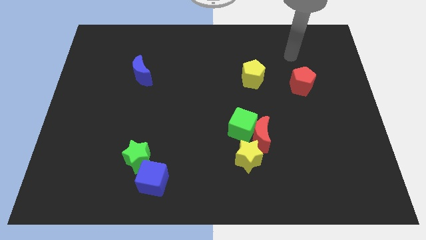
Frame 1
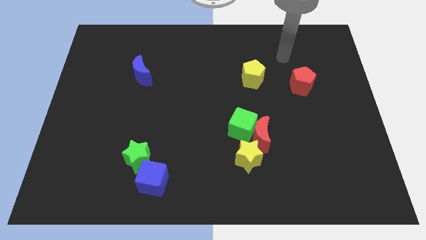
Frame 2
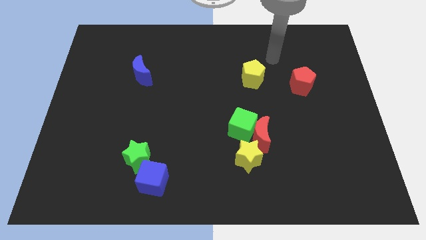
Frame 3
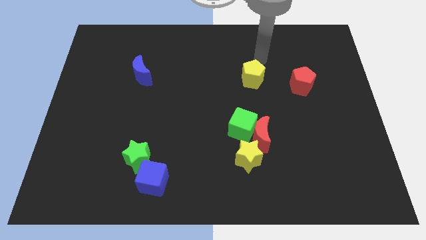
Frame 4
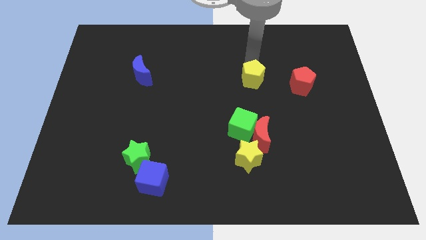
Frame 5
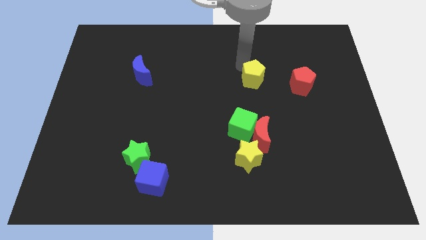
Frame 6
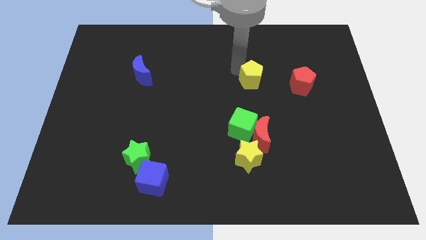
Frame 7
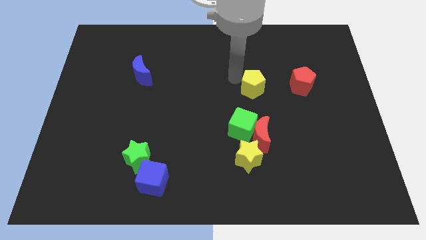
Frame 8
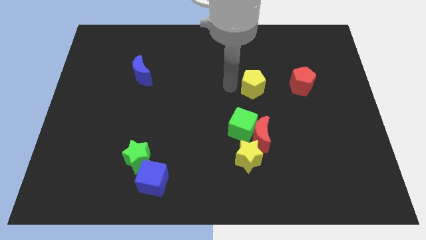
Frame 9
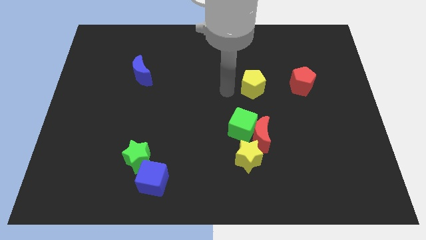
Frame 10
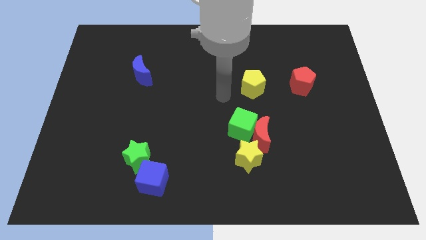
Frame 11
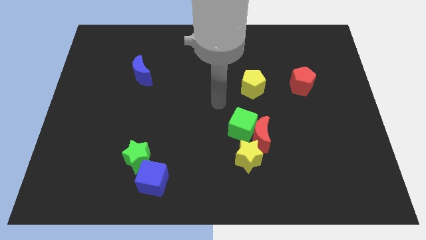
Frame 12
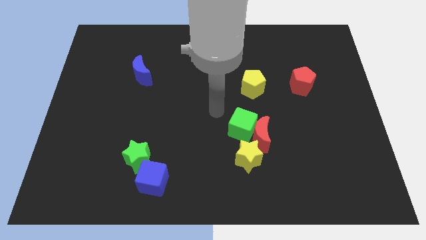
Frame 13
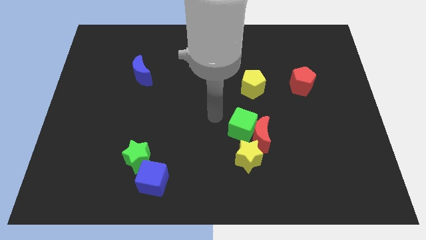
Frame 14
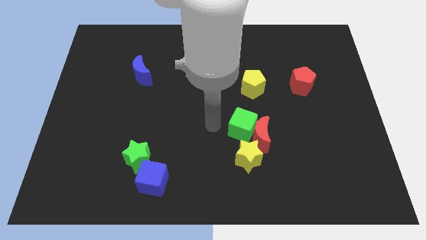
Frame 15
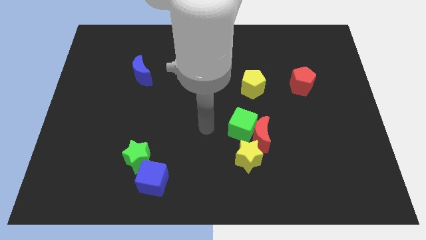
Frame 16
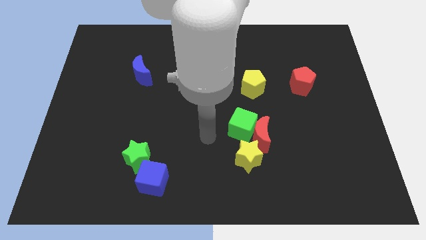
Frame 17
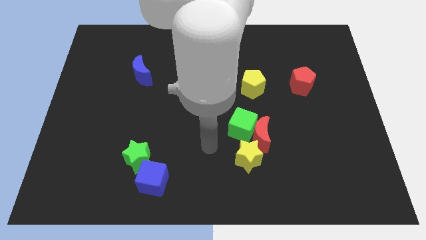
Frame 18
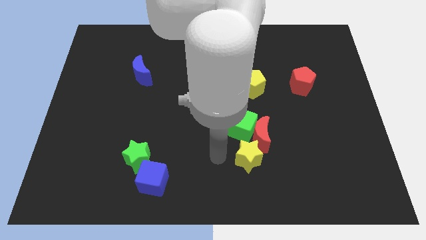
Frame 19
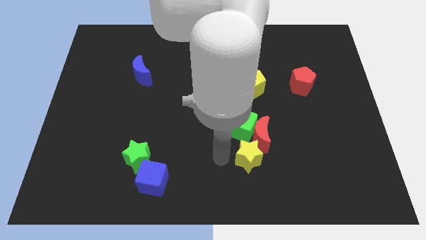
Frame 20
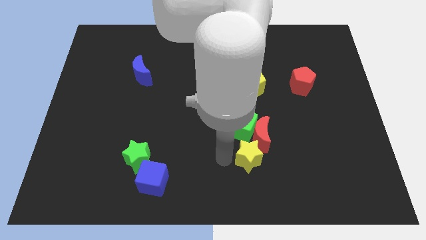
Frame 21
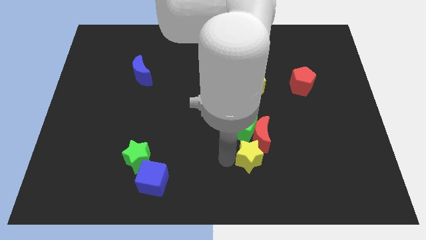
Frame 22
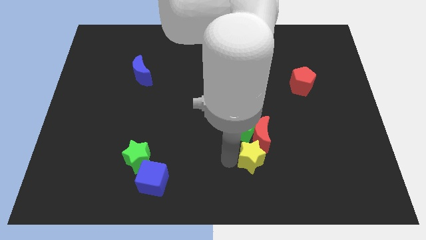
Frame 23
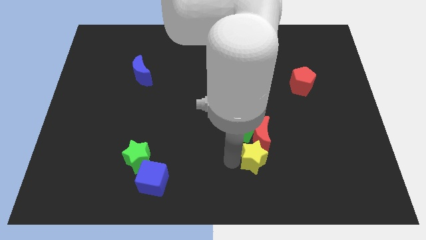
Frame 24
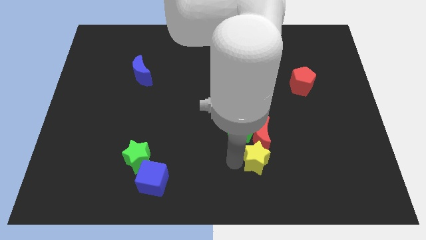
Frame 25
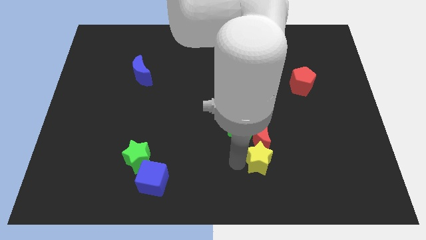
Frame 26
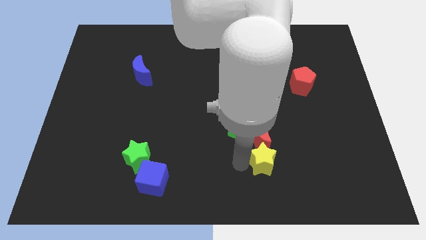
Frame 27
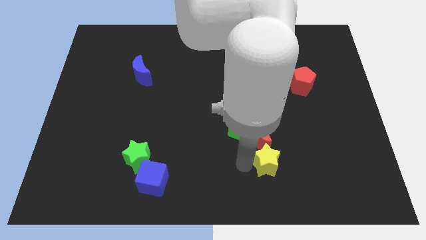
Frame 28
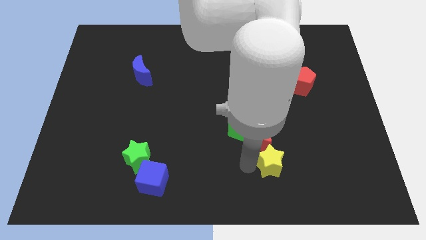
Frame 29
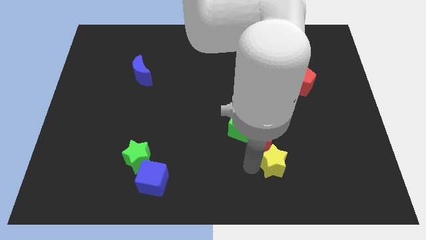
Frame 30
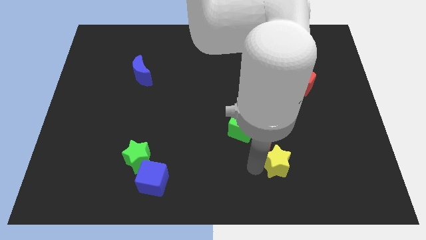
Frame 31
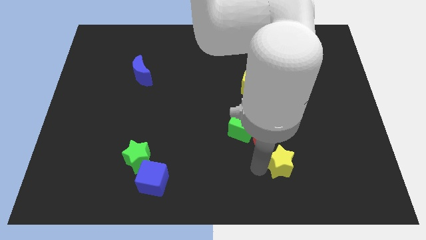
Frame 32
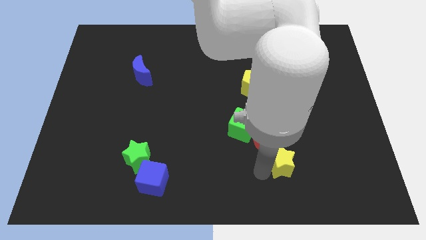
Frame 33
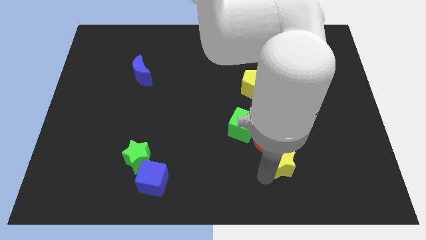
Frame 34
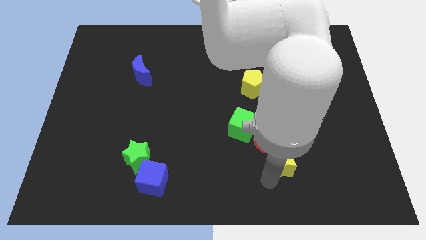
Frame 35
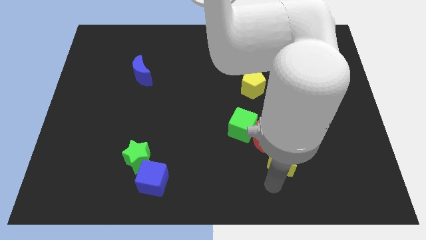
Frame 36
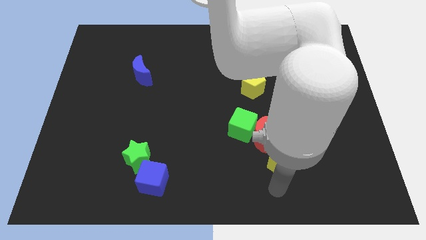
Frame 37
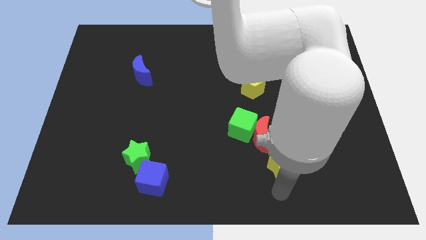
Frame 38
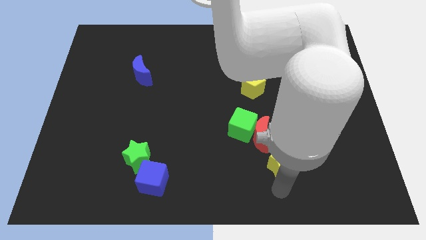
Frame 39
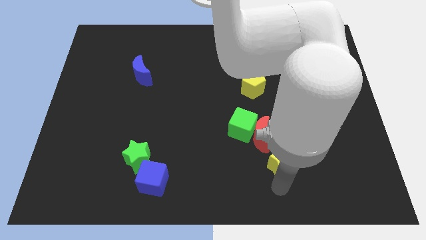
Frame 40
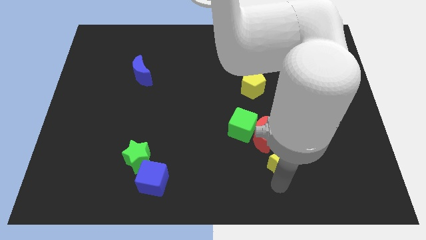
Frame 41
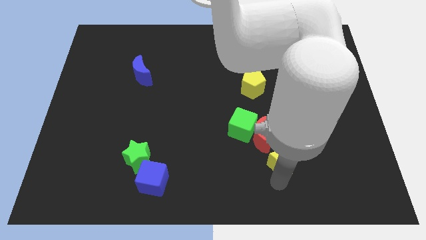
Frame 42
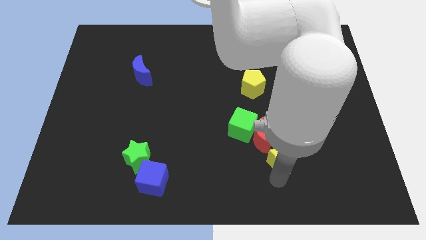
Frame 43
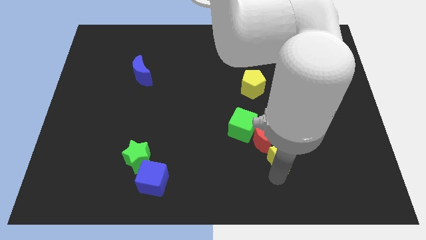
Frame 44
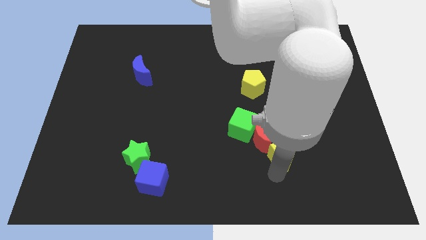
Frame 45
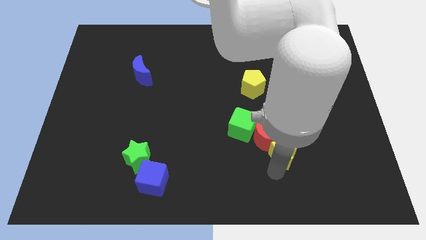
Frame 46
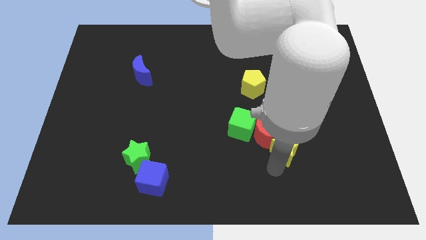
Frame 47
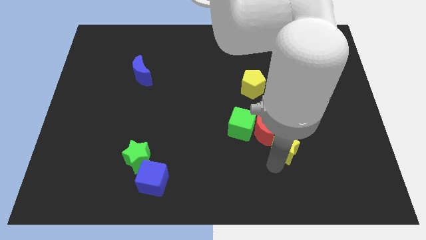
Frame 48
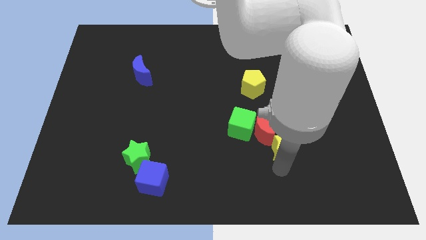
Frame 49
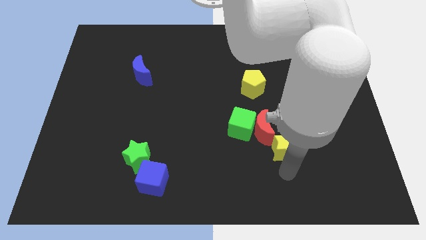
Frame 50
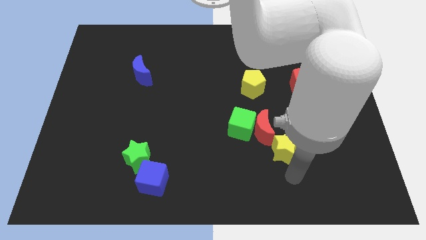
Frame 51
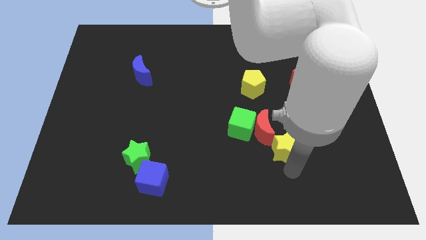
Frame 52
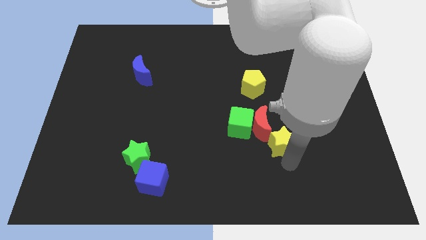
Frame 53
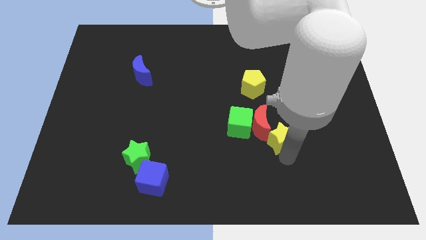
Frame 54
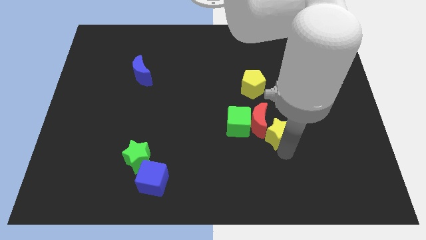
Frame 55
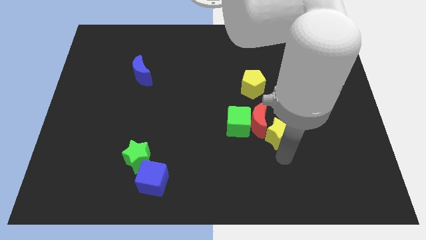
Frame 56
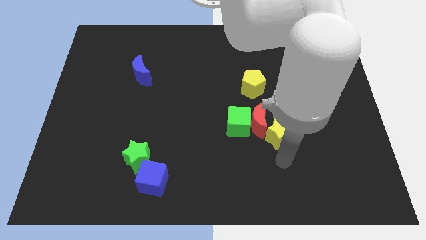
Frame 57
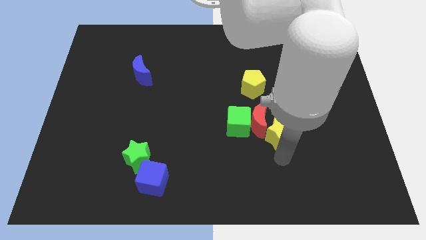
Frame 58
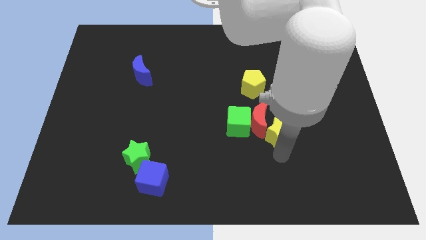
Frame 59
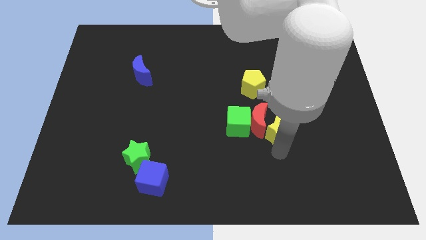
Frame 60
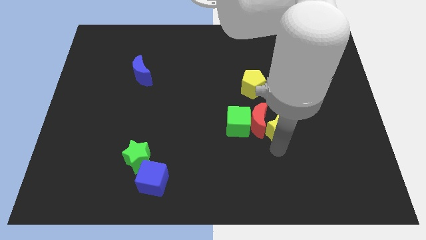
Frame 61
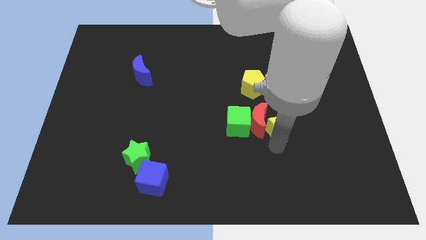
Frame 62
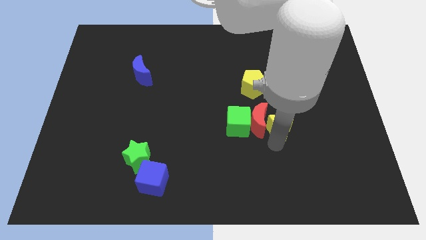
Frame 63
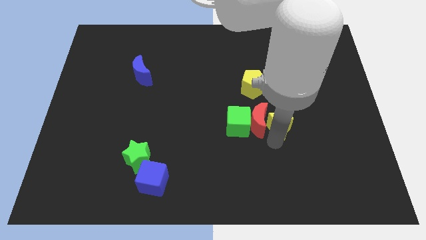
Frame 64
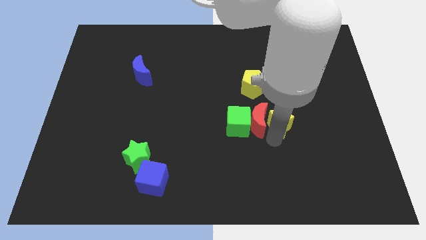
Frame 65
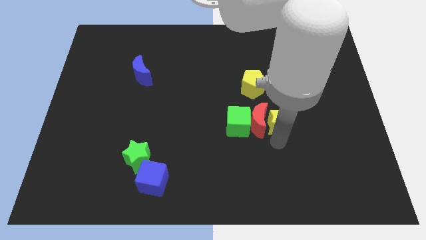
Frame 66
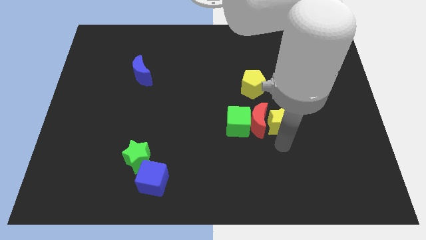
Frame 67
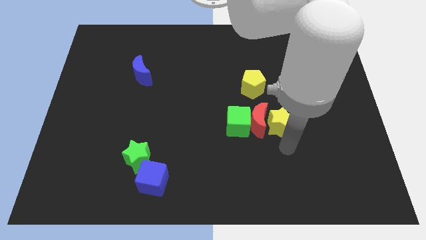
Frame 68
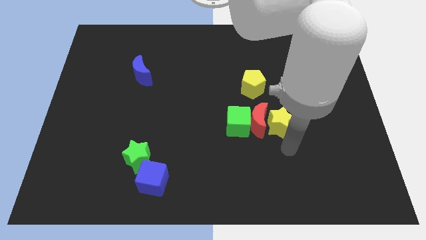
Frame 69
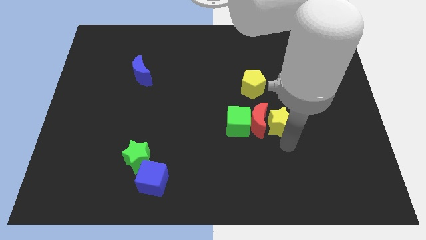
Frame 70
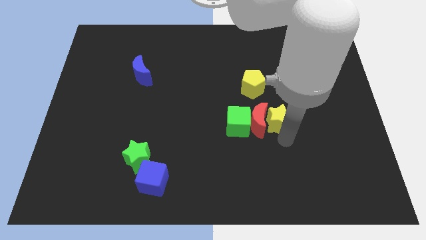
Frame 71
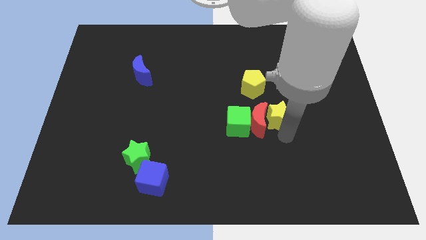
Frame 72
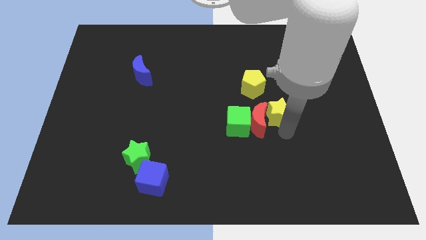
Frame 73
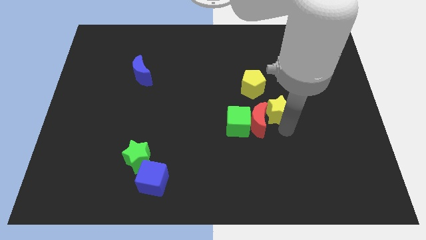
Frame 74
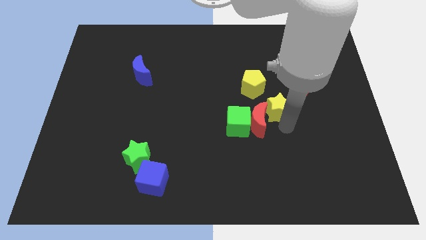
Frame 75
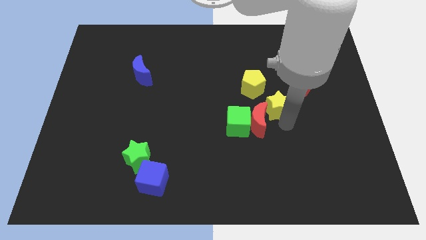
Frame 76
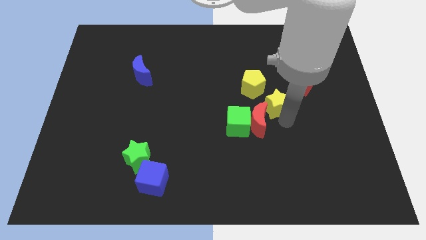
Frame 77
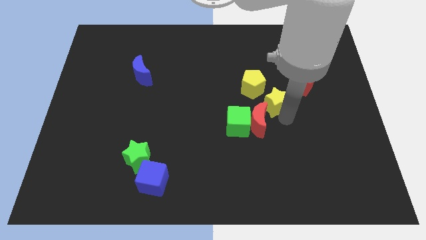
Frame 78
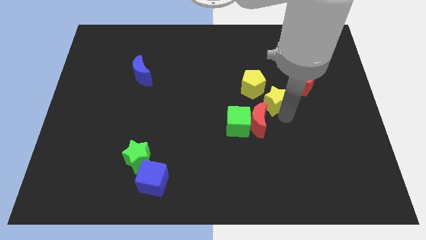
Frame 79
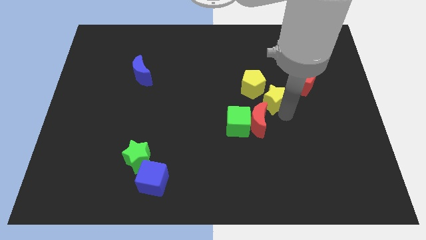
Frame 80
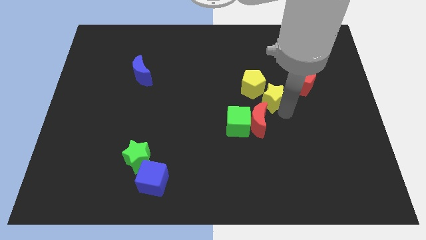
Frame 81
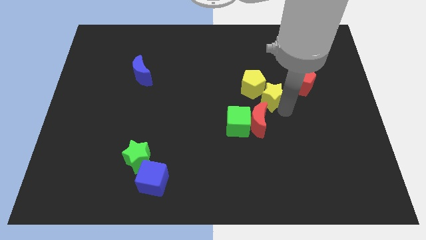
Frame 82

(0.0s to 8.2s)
push the yellow star towards the yellow pentagon
